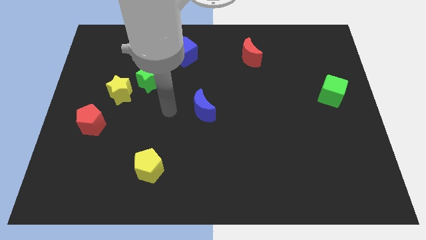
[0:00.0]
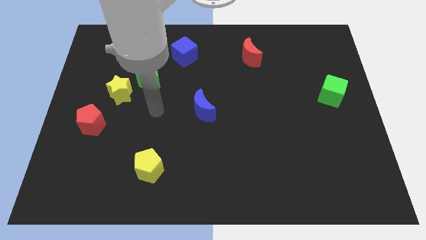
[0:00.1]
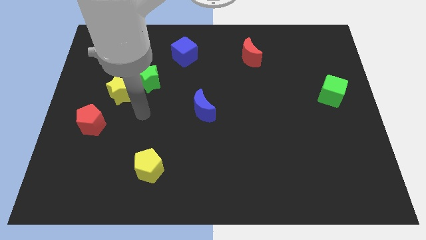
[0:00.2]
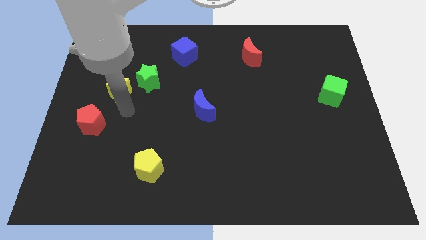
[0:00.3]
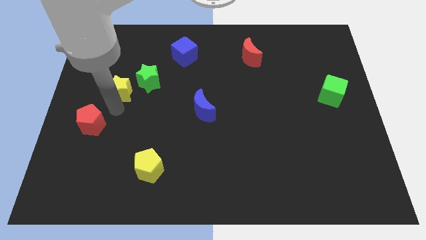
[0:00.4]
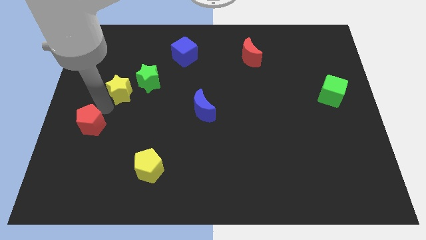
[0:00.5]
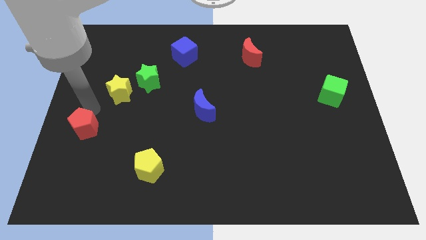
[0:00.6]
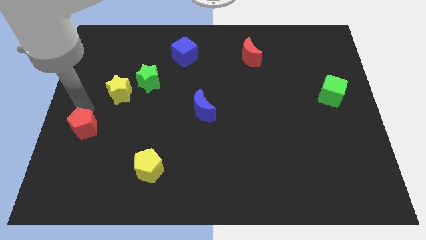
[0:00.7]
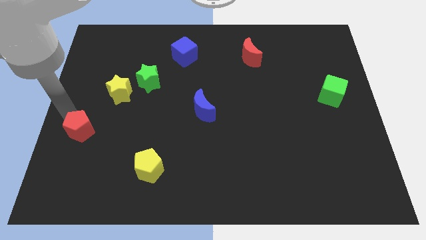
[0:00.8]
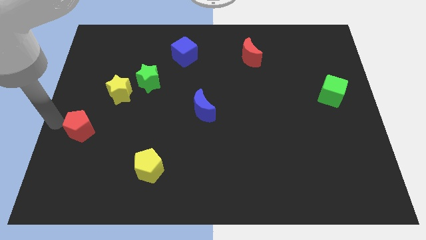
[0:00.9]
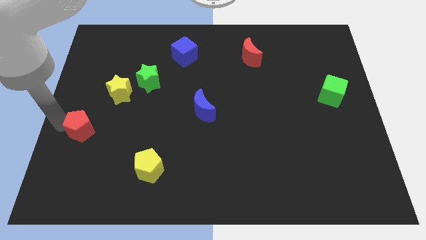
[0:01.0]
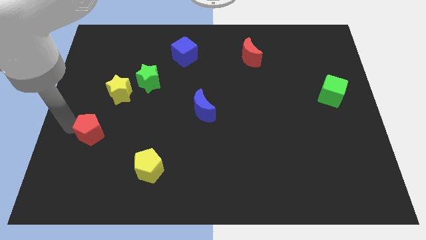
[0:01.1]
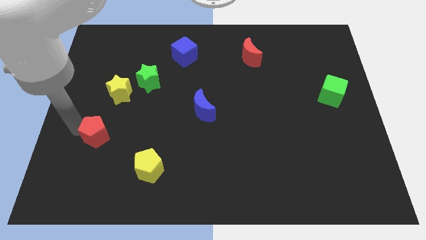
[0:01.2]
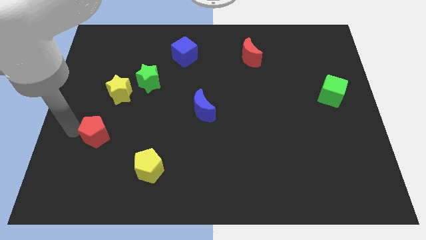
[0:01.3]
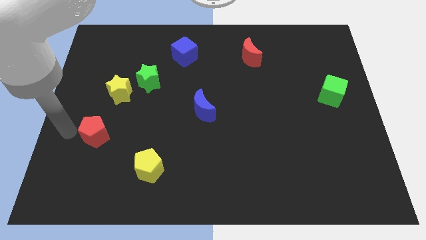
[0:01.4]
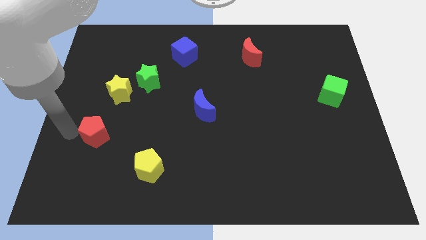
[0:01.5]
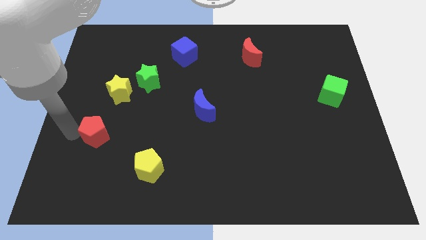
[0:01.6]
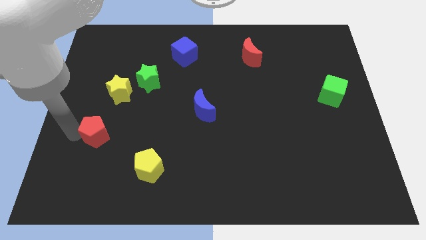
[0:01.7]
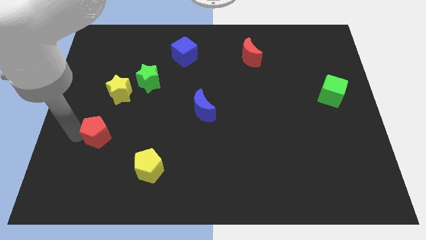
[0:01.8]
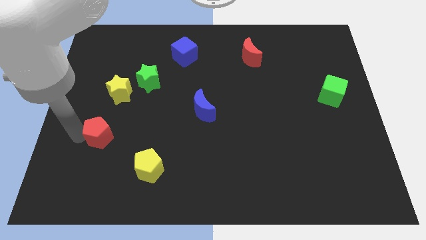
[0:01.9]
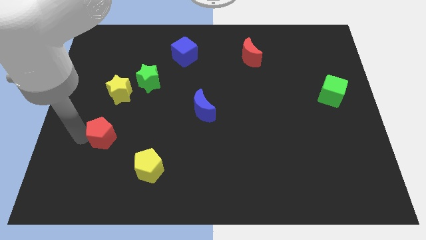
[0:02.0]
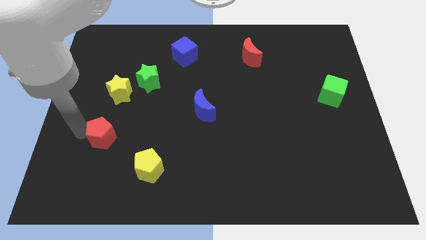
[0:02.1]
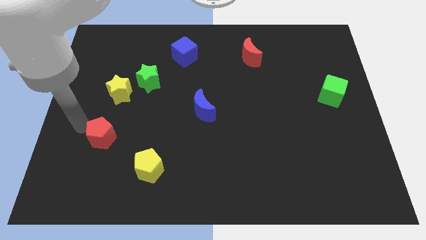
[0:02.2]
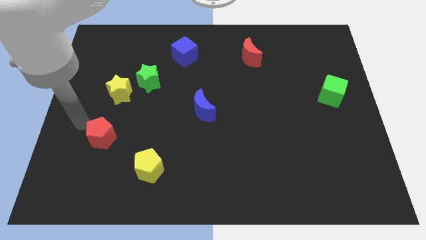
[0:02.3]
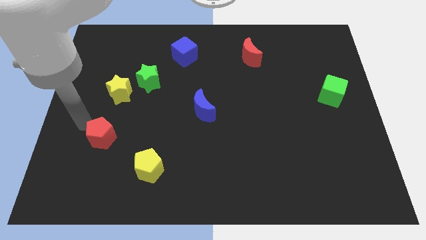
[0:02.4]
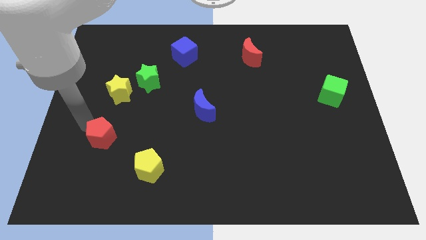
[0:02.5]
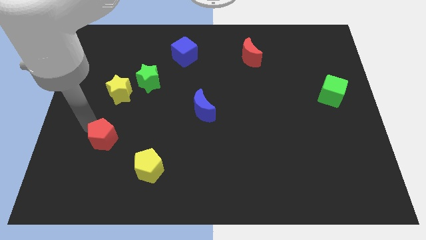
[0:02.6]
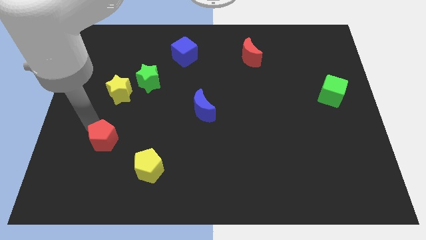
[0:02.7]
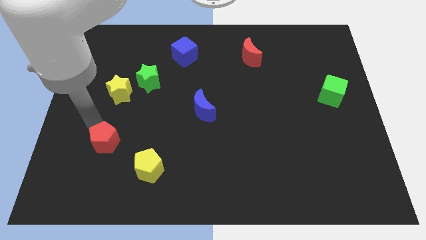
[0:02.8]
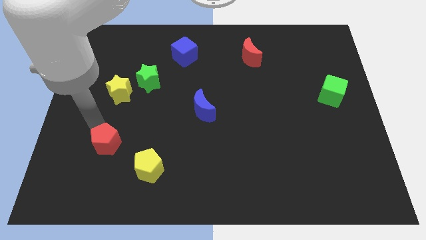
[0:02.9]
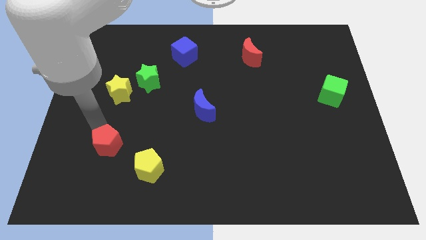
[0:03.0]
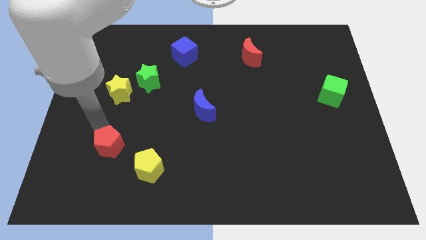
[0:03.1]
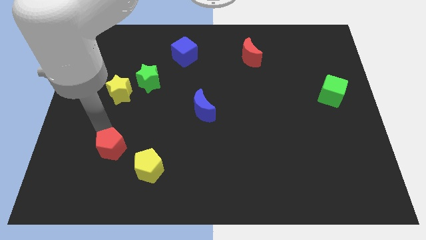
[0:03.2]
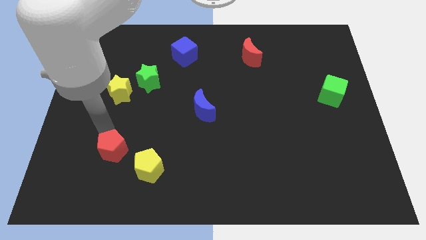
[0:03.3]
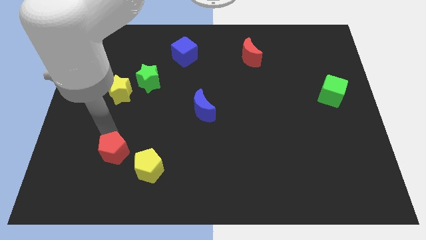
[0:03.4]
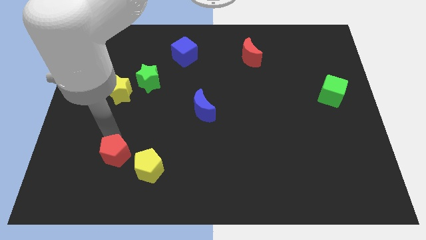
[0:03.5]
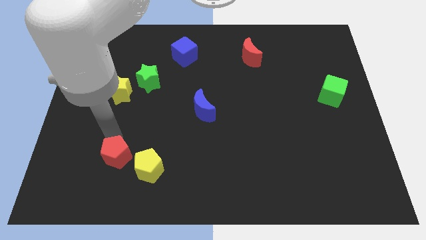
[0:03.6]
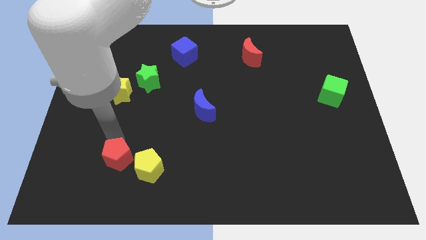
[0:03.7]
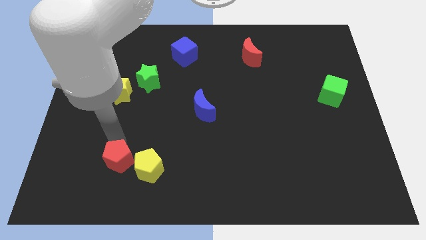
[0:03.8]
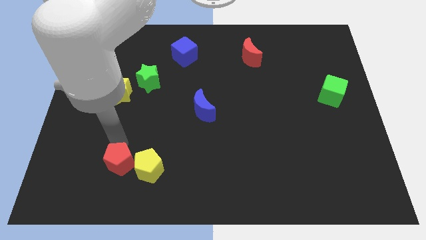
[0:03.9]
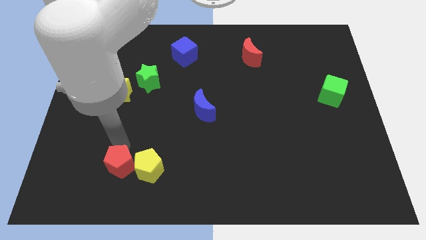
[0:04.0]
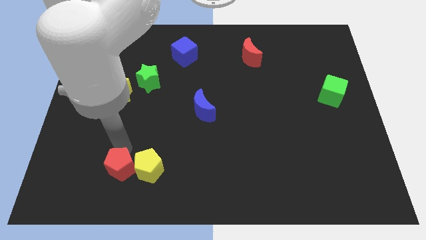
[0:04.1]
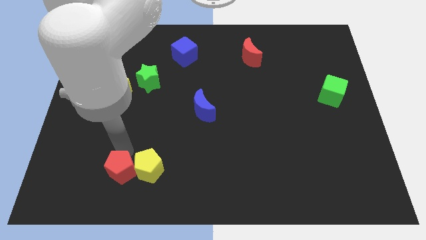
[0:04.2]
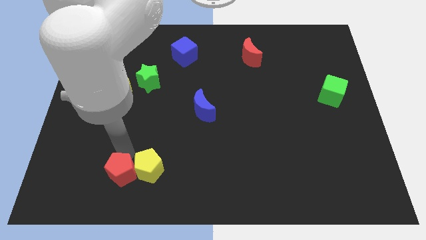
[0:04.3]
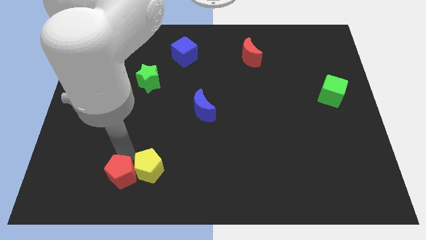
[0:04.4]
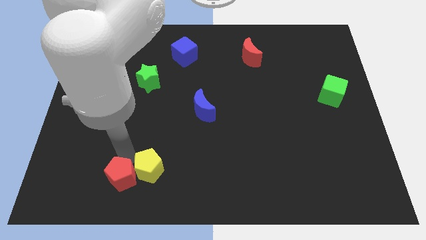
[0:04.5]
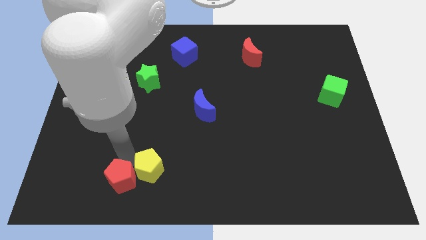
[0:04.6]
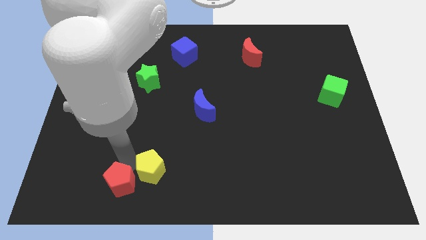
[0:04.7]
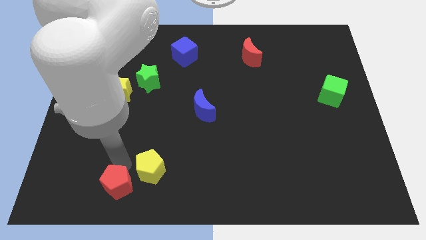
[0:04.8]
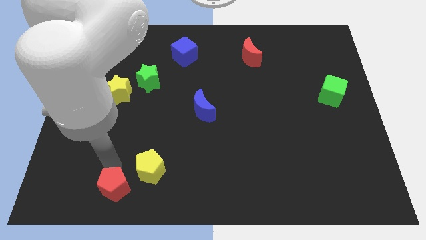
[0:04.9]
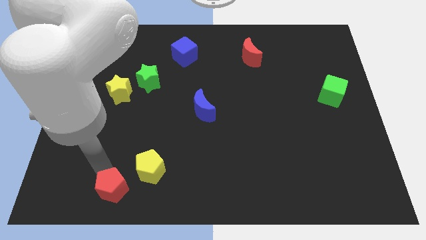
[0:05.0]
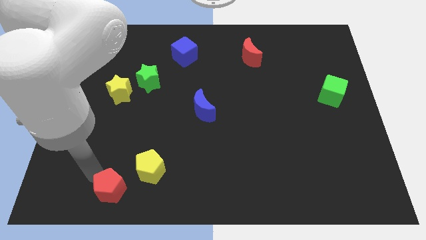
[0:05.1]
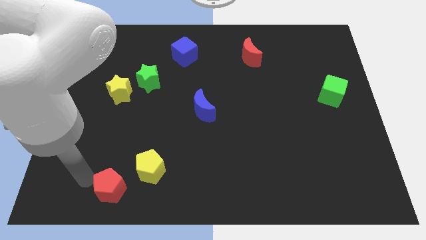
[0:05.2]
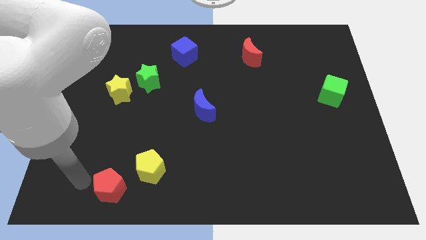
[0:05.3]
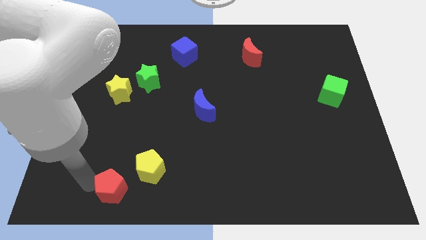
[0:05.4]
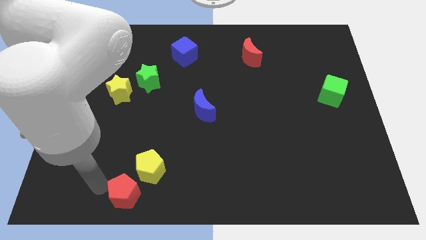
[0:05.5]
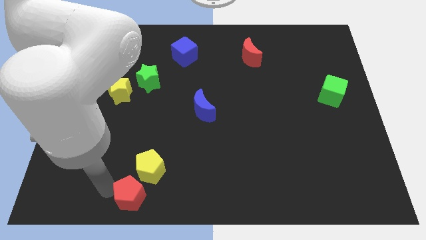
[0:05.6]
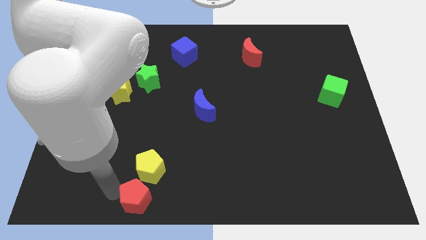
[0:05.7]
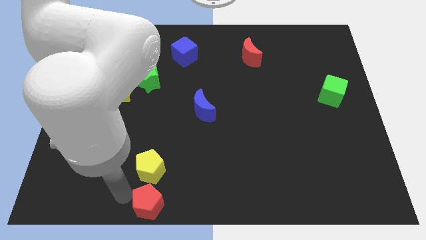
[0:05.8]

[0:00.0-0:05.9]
put the red pentagon to the bottom
